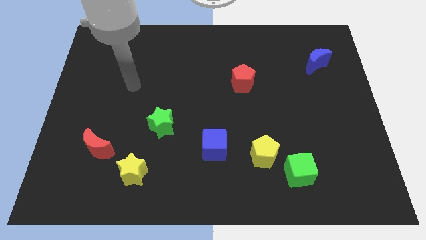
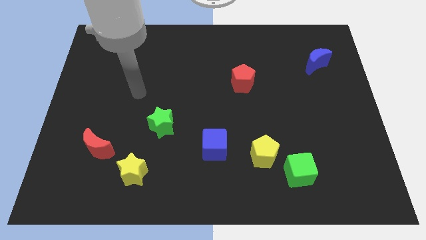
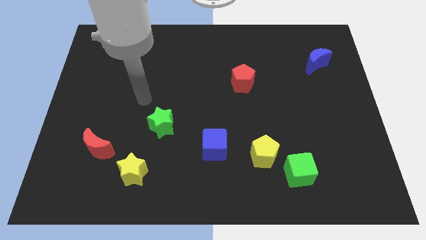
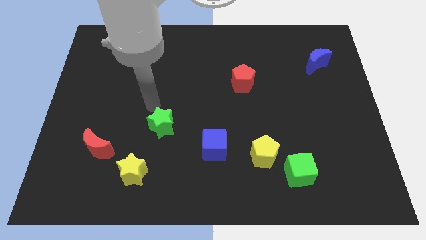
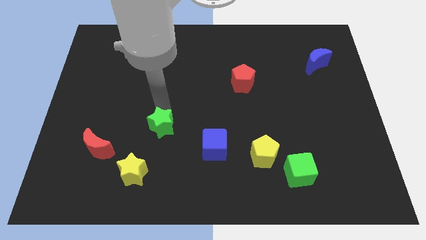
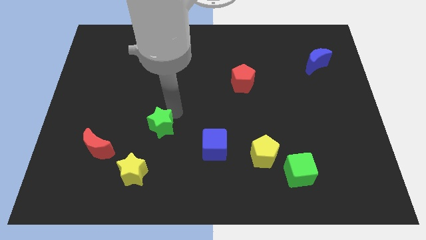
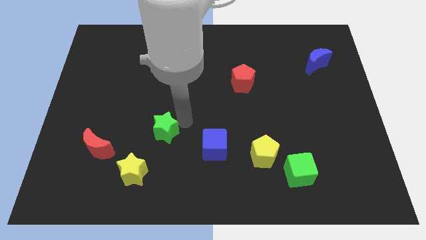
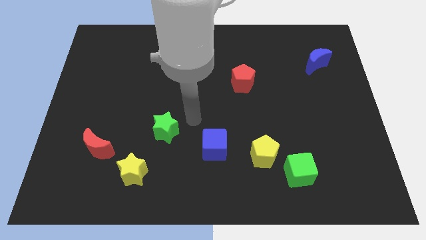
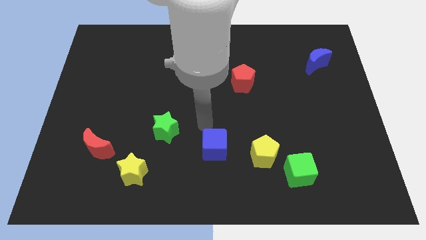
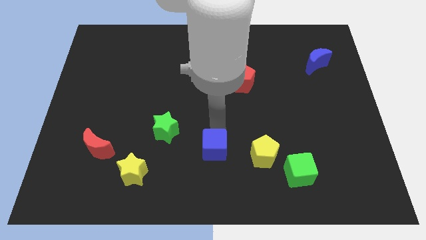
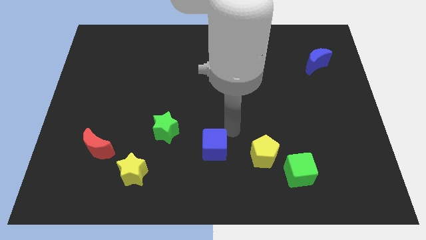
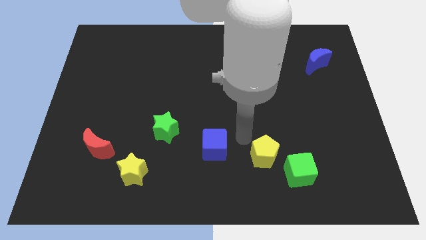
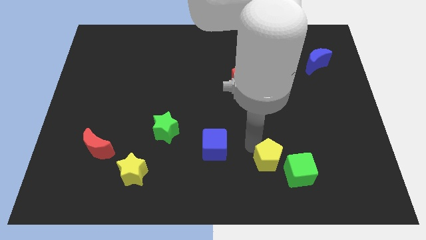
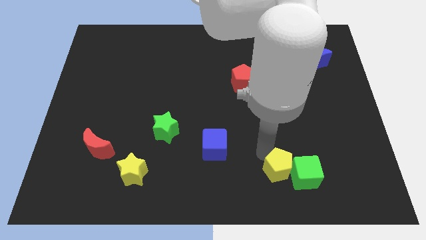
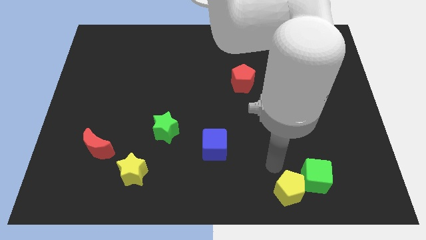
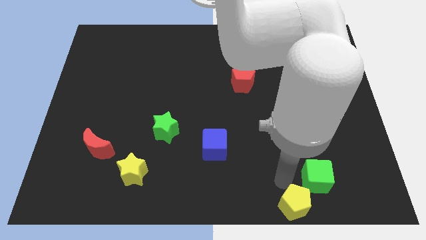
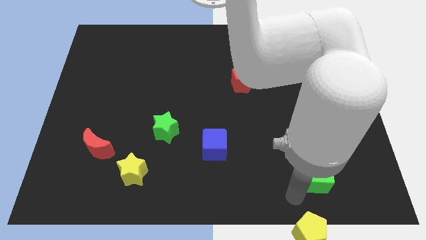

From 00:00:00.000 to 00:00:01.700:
move the green cube away from the yellow pentagon

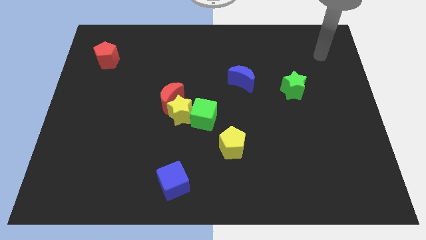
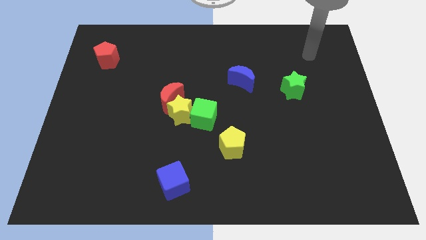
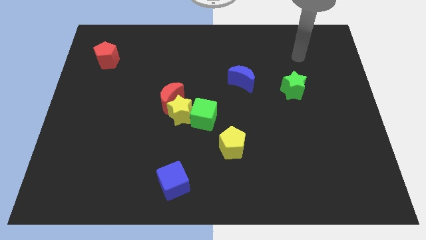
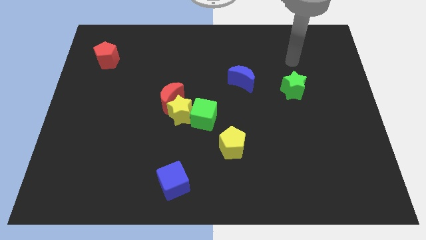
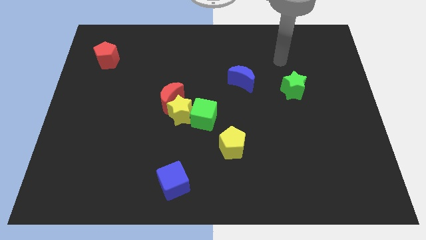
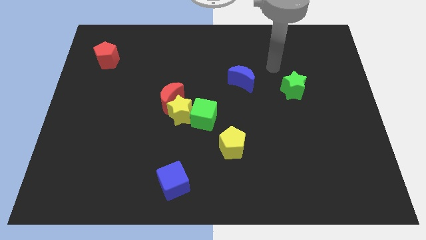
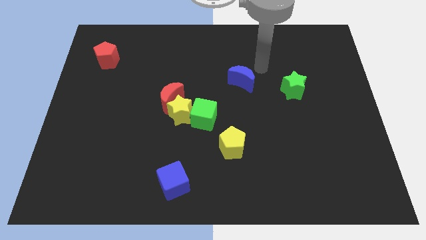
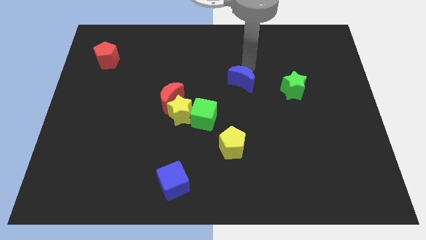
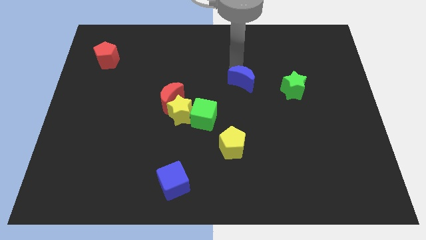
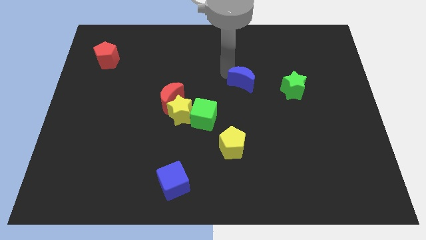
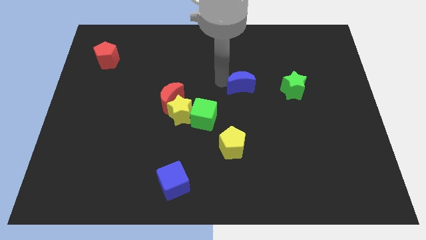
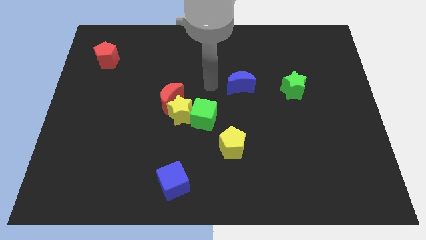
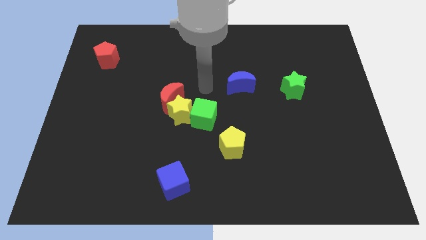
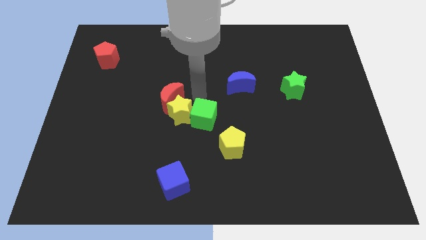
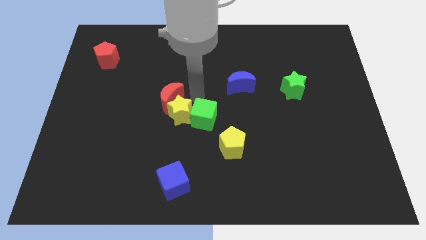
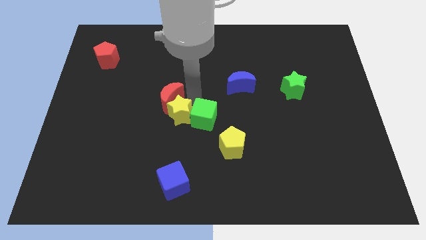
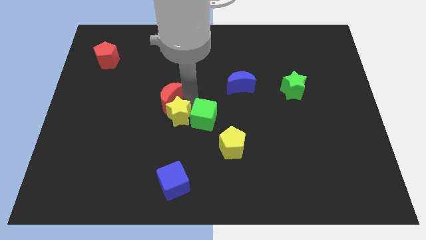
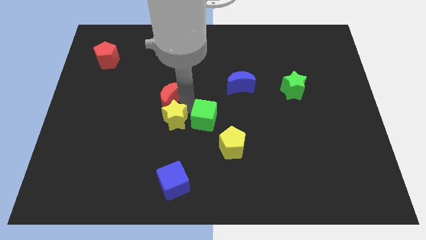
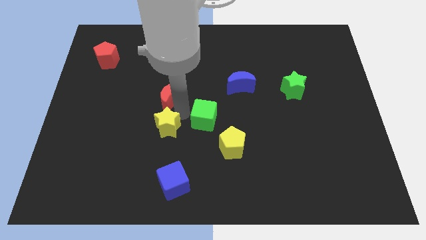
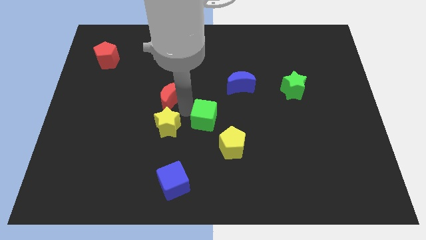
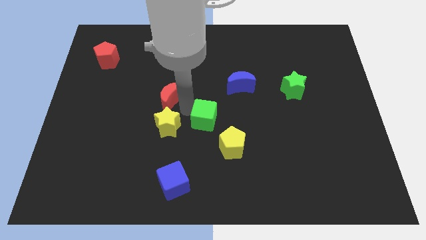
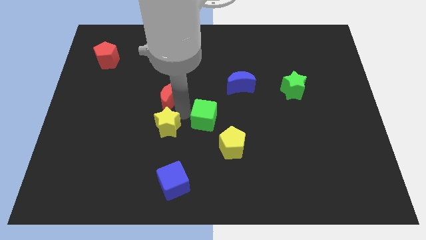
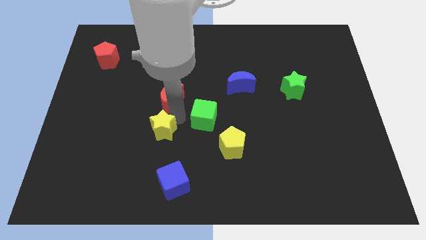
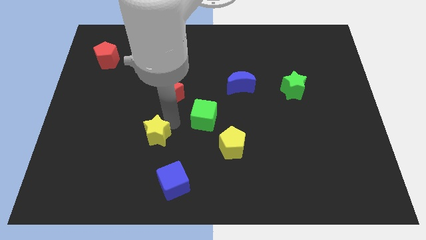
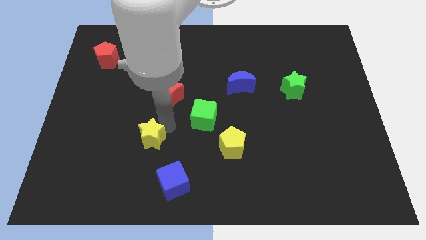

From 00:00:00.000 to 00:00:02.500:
pull the yellow star apart from the red moon and green cube

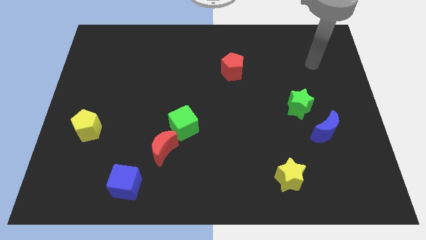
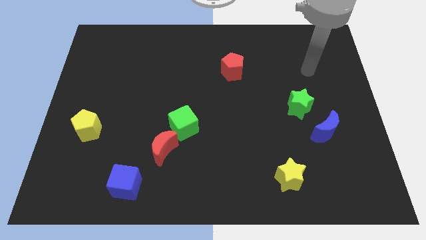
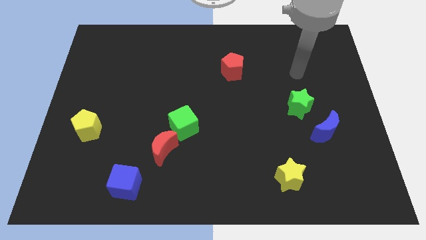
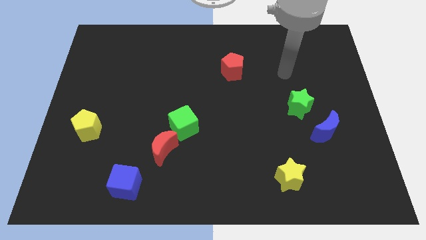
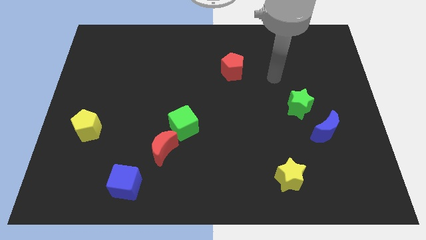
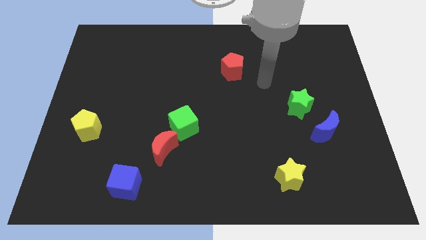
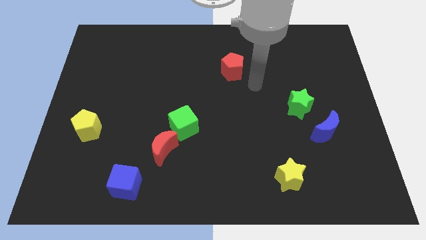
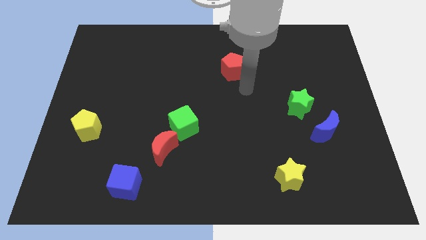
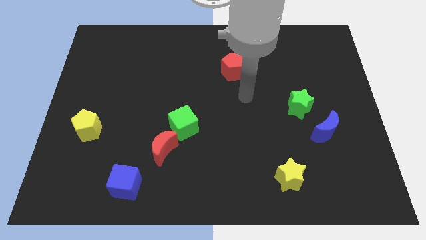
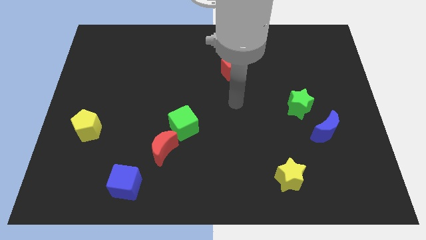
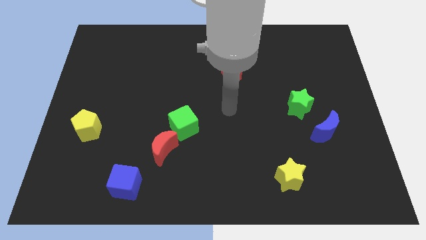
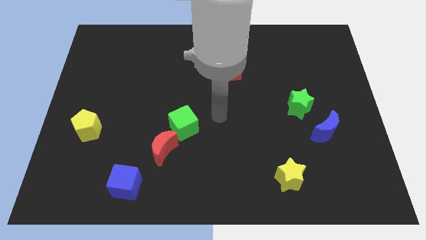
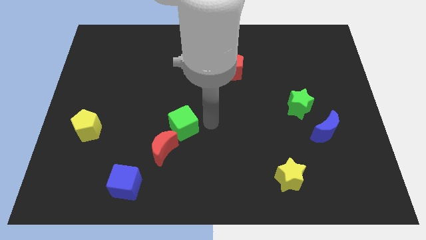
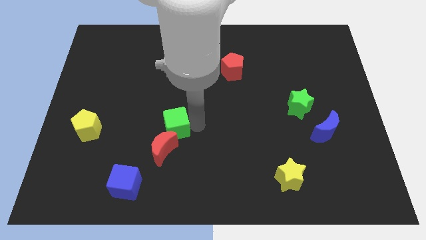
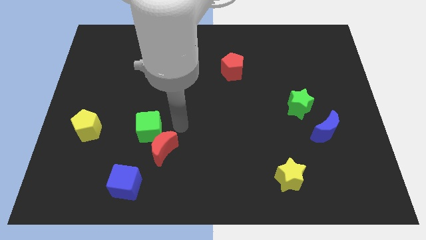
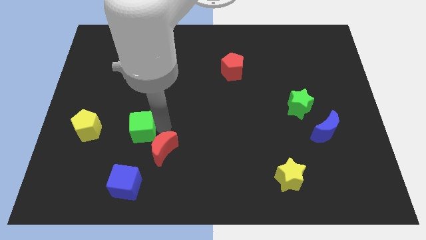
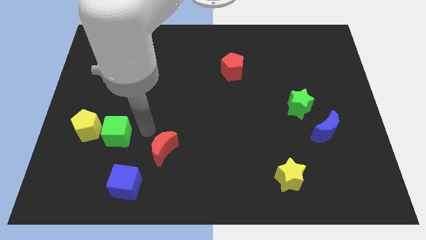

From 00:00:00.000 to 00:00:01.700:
move the red moon away from the green cube

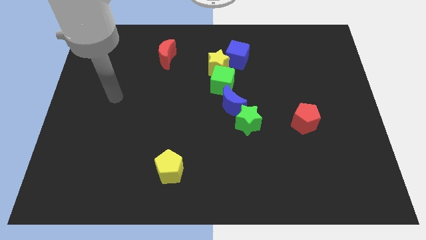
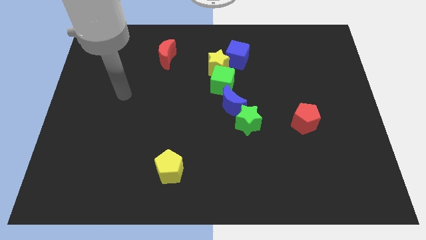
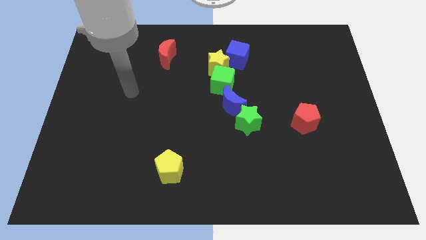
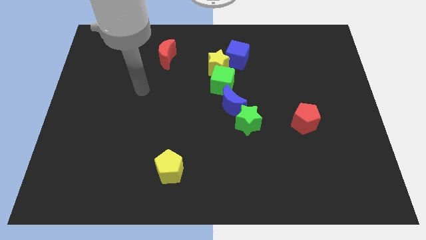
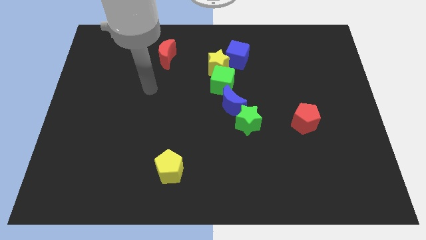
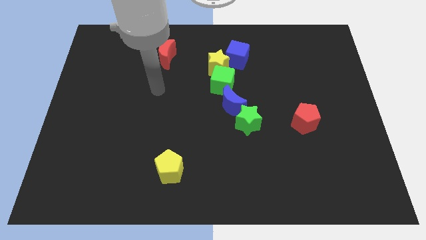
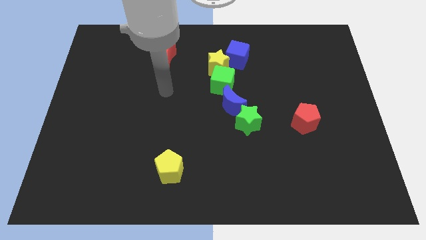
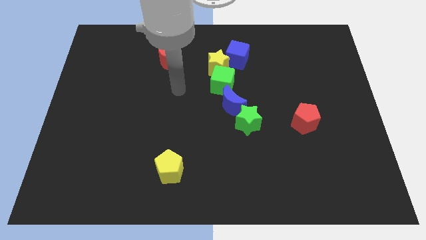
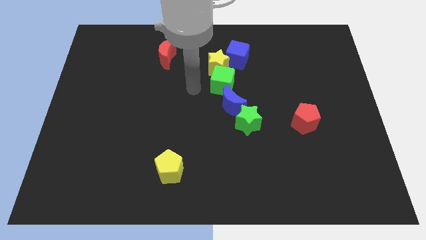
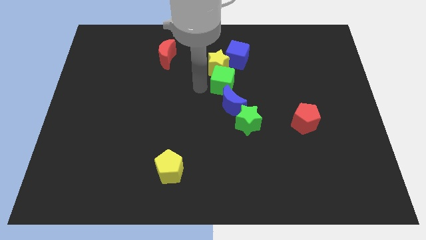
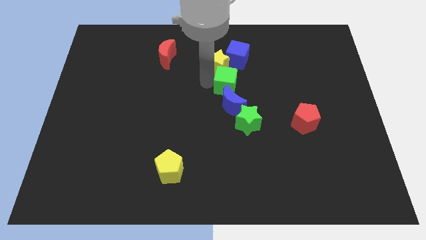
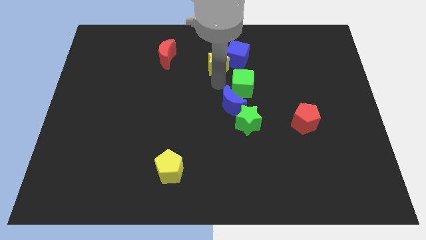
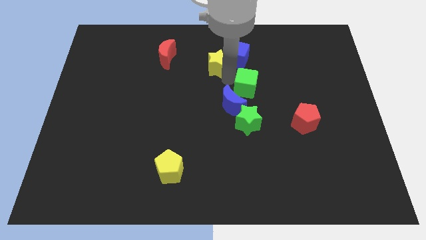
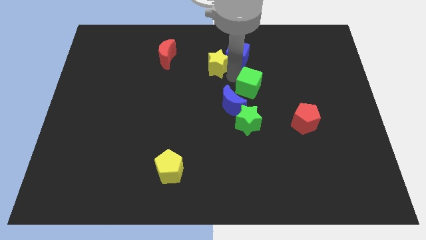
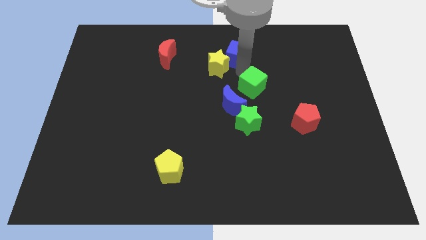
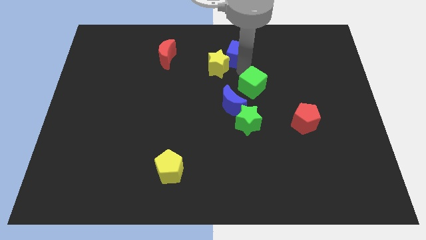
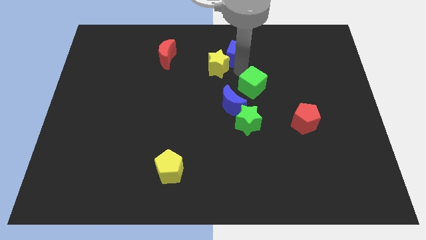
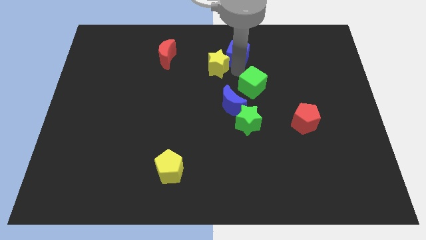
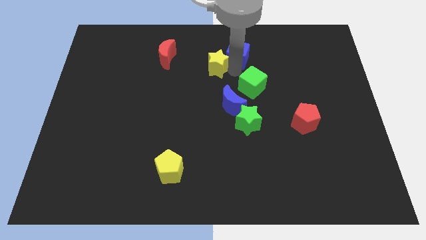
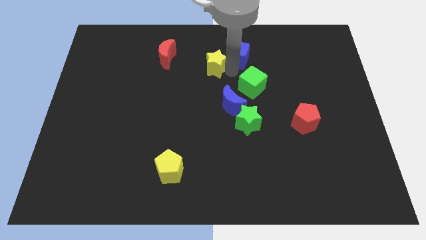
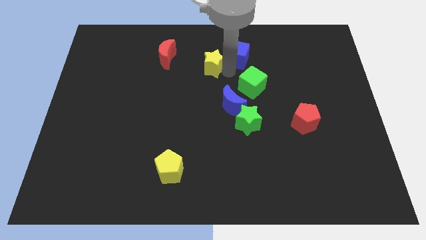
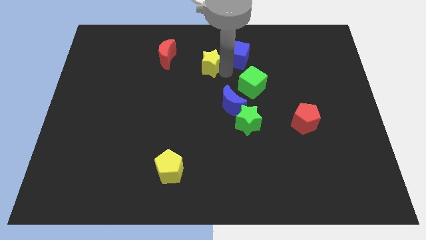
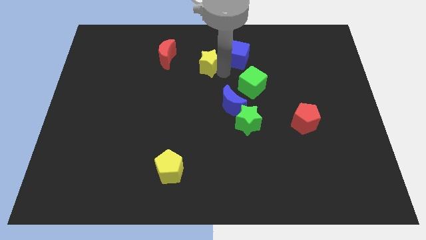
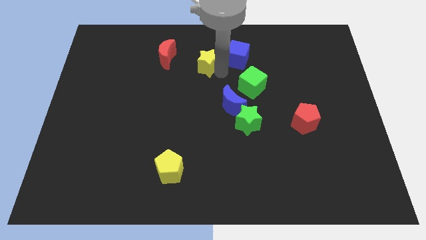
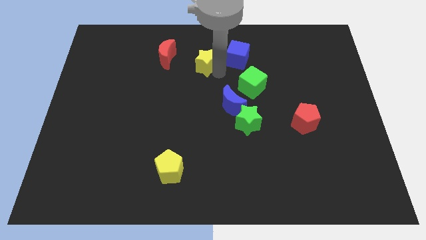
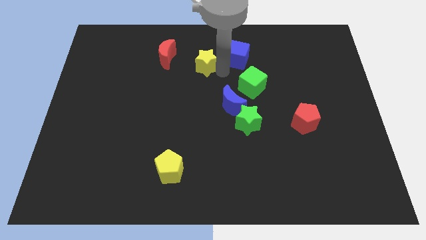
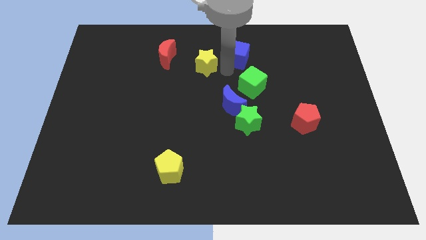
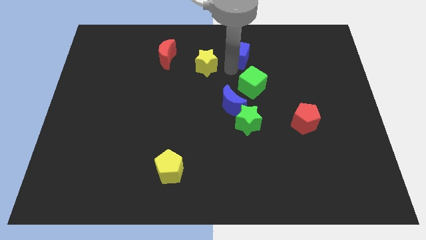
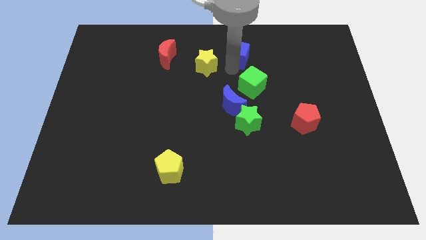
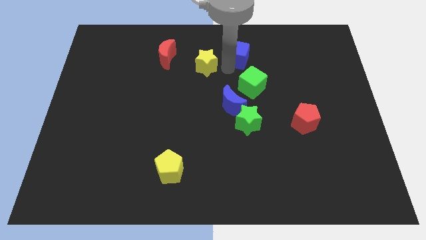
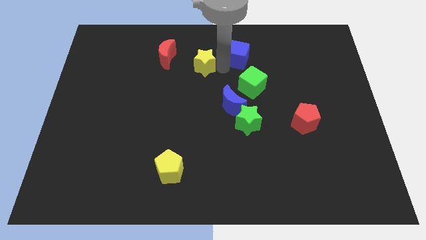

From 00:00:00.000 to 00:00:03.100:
move the yellow star away from the green cube and blue cube

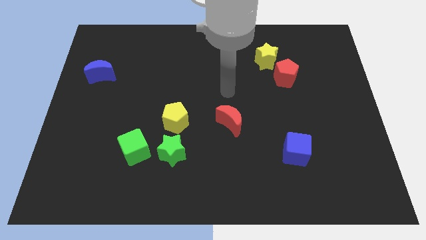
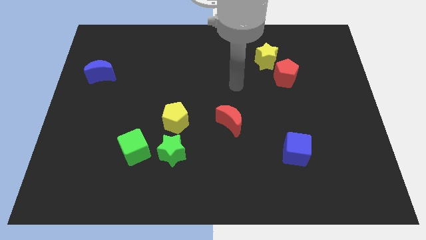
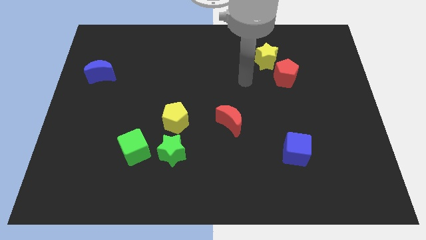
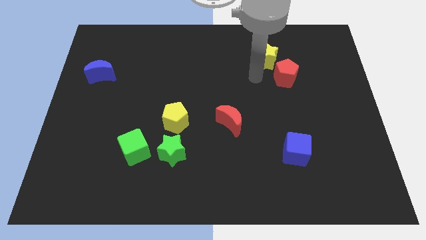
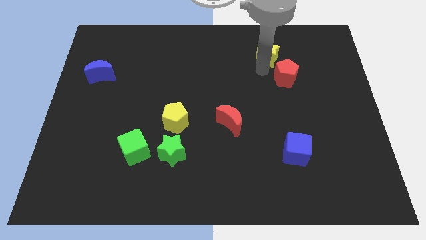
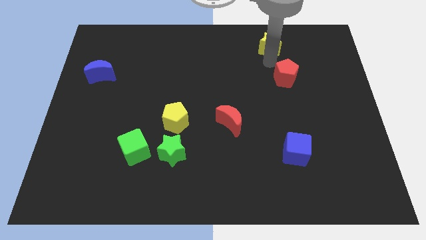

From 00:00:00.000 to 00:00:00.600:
move the red pentagon away from the yellow star
